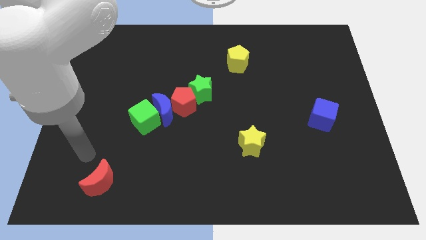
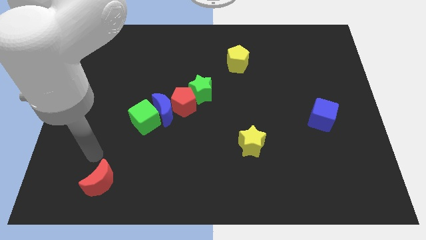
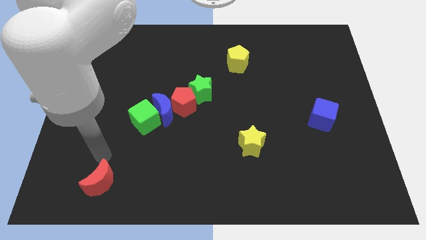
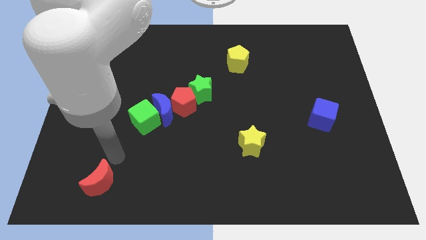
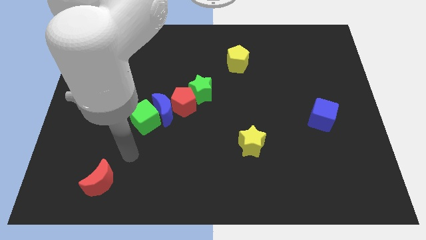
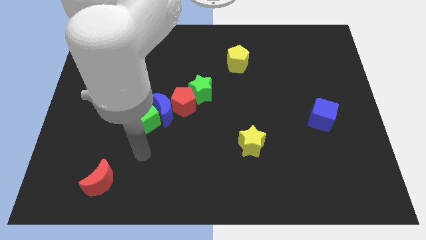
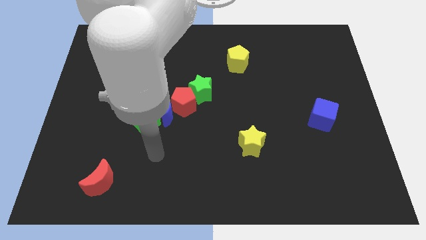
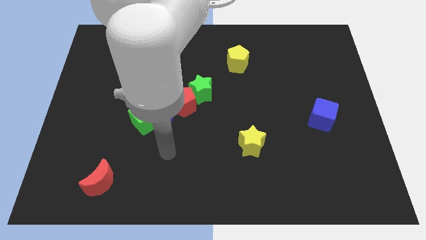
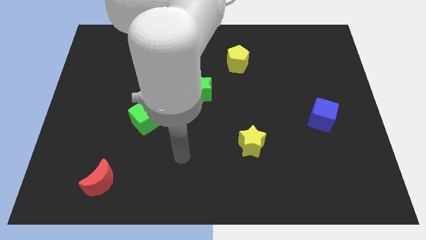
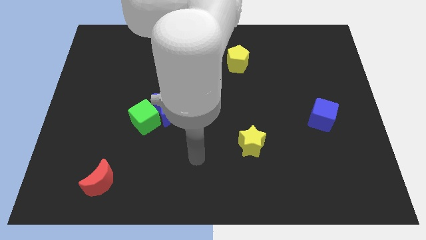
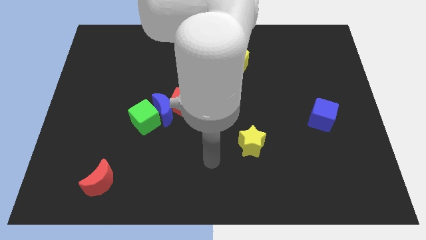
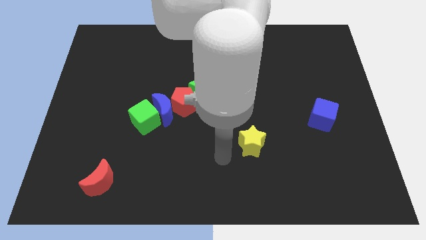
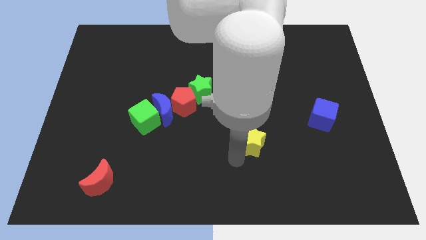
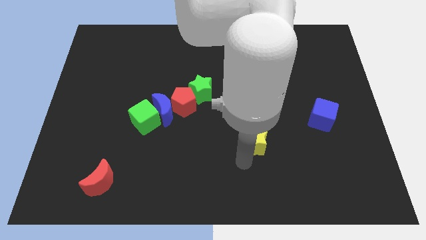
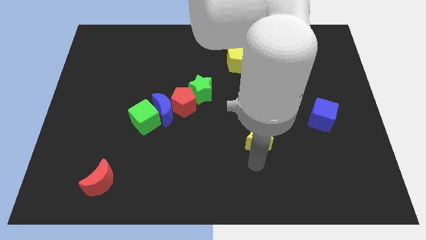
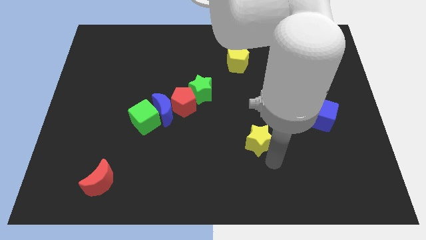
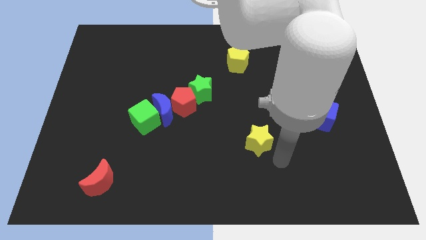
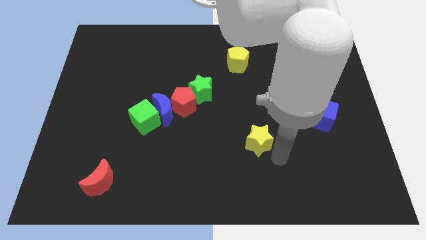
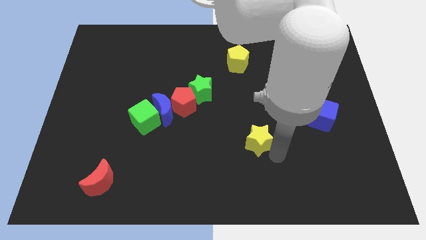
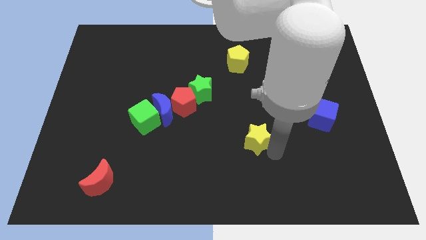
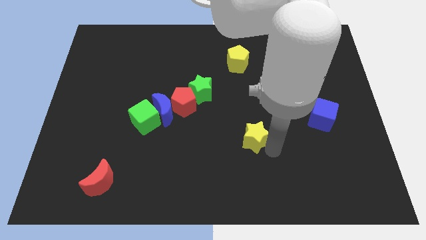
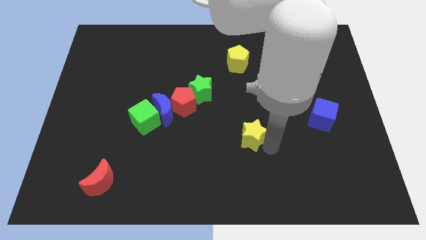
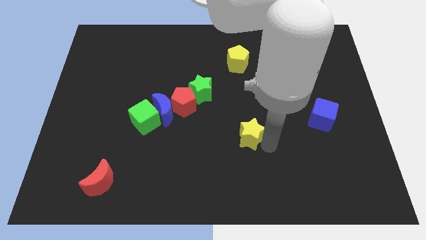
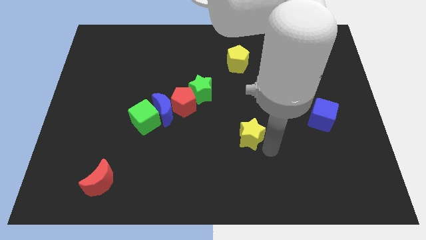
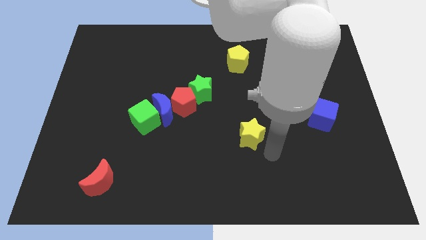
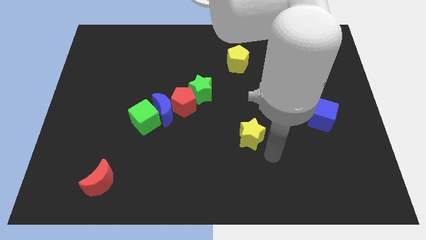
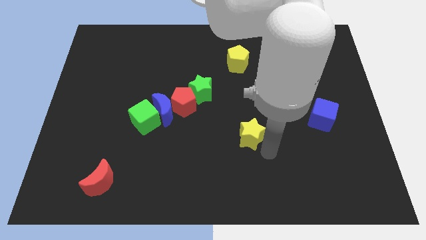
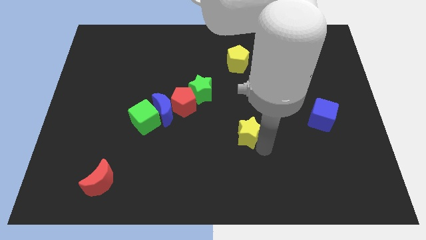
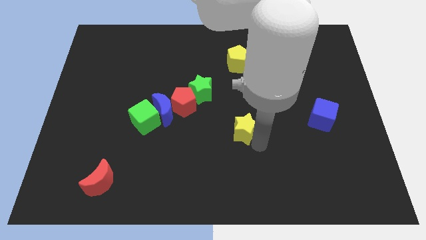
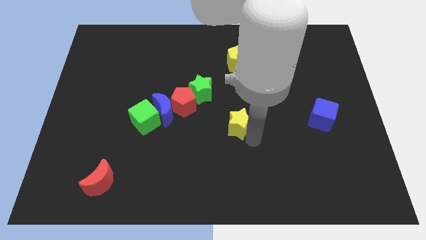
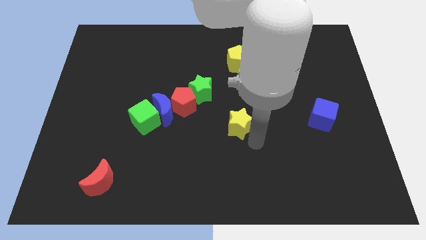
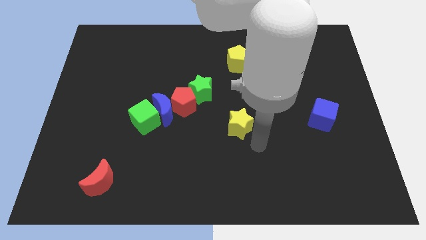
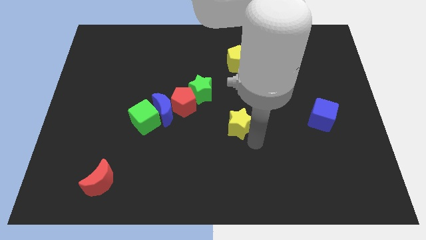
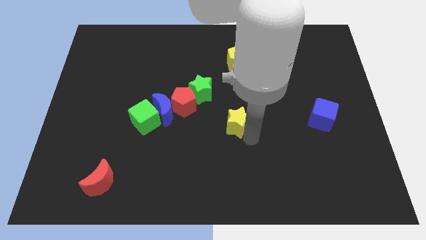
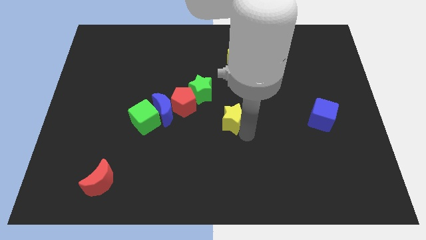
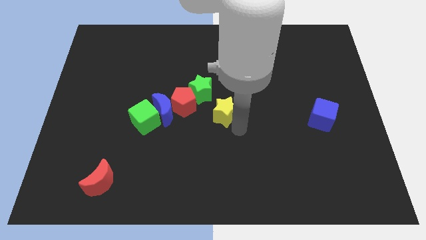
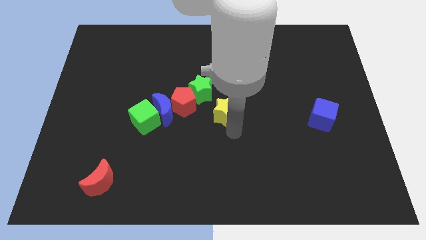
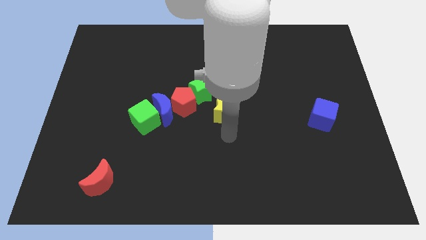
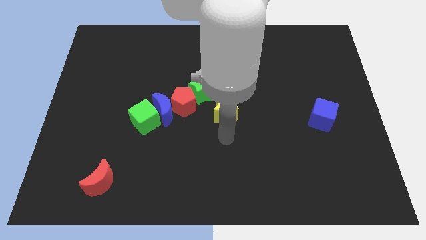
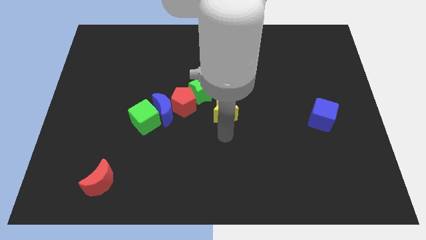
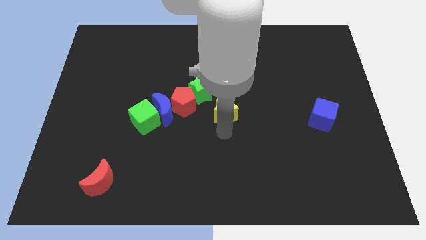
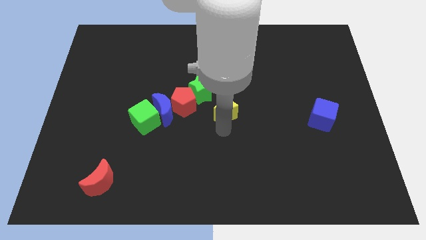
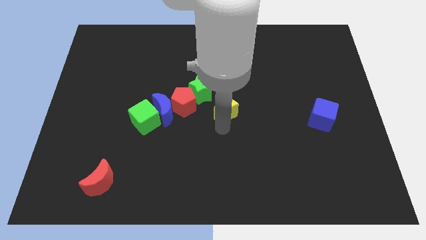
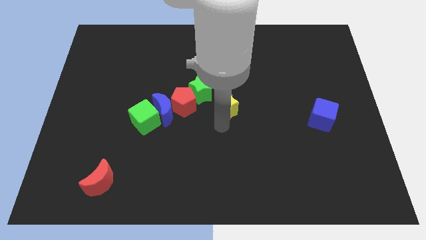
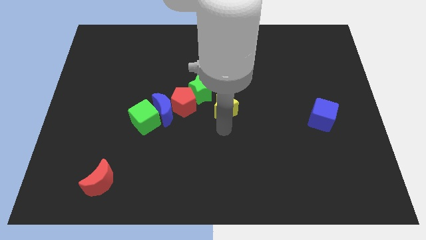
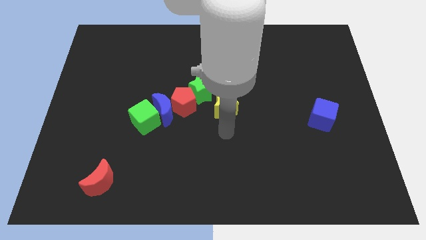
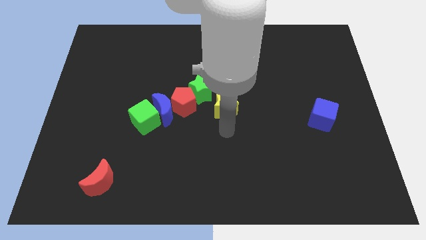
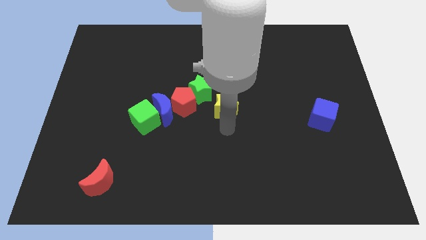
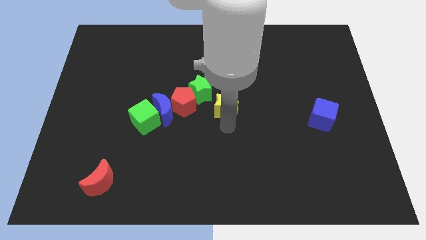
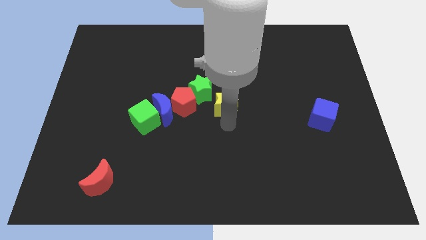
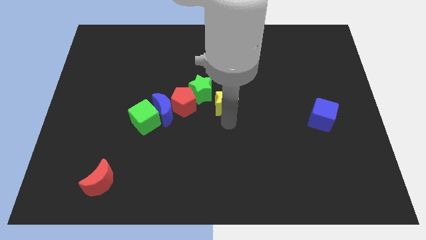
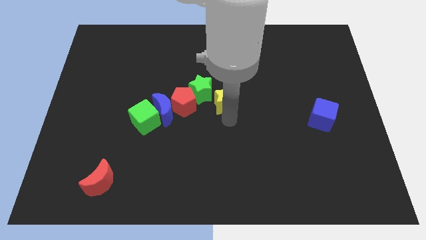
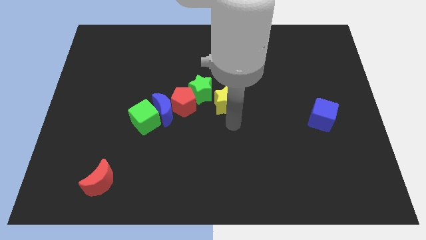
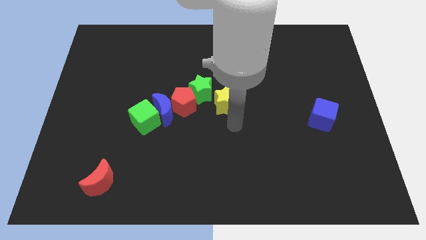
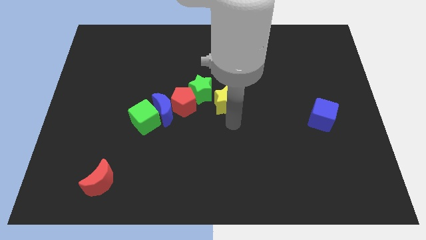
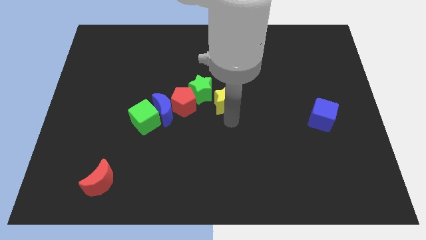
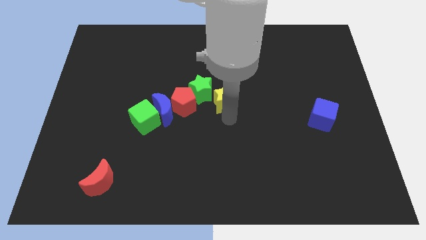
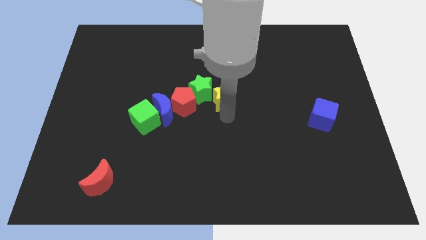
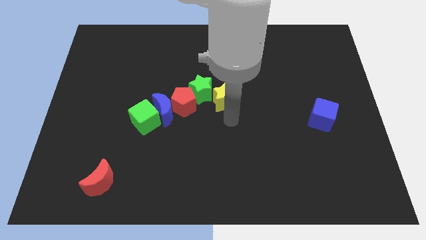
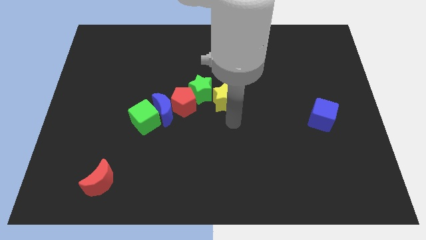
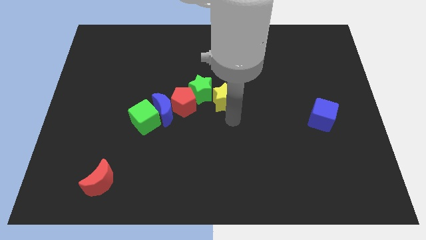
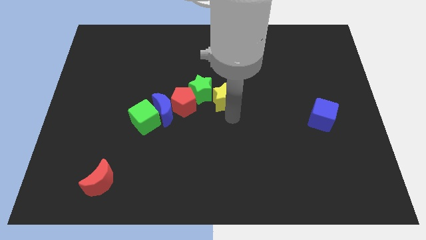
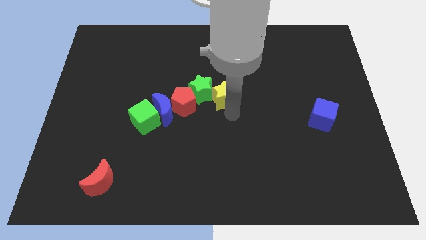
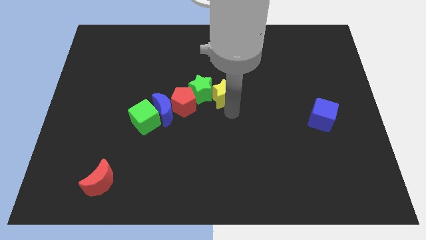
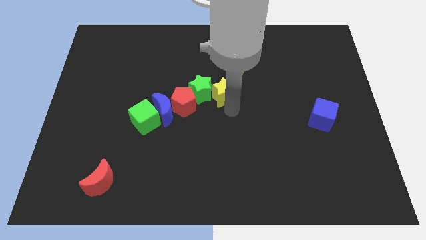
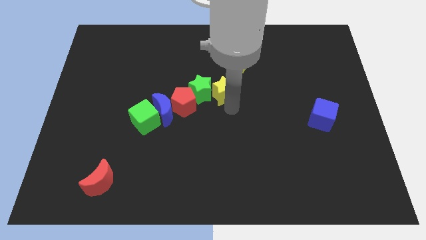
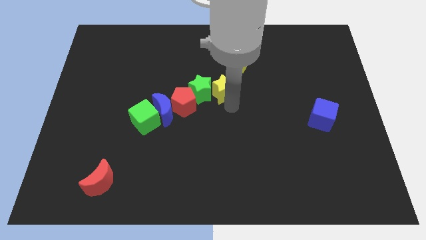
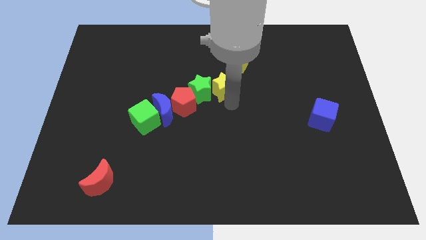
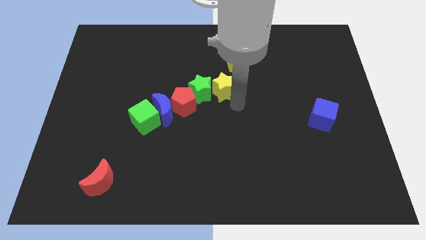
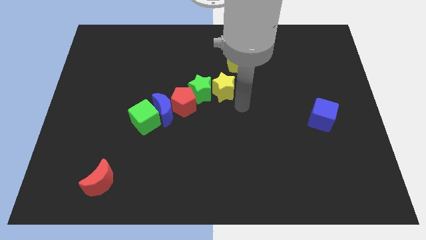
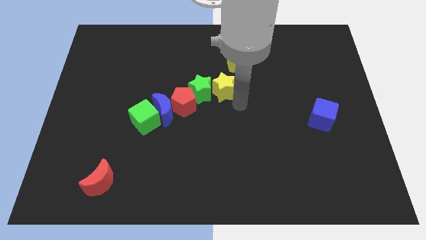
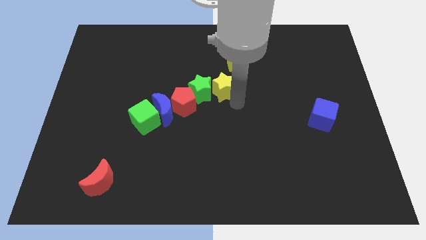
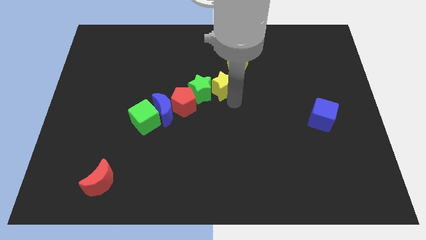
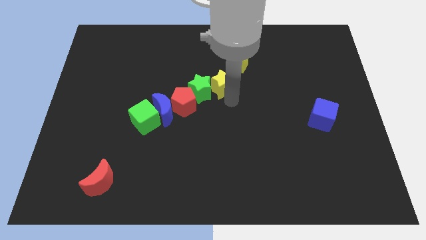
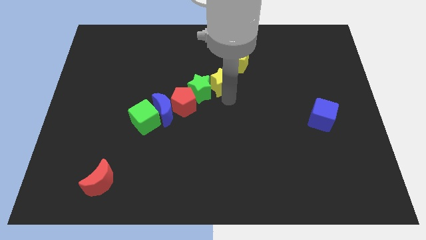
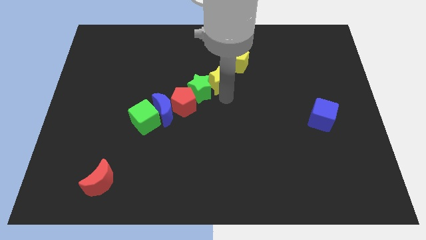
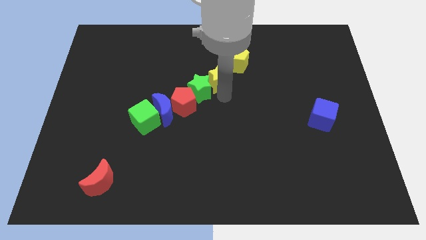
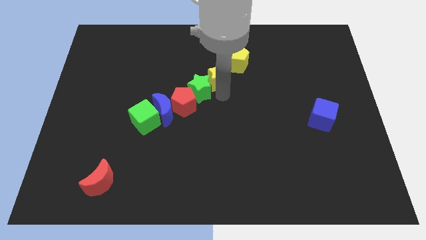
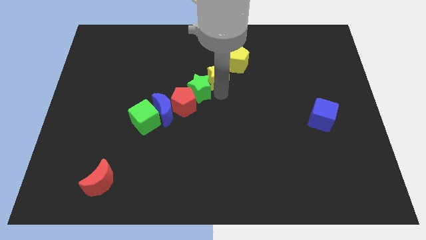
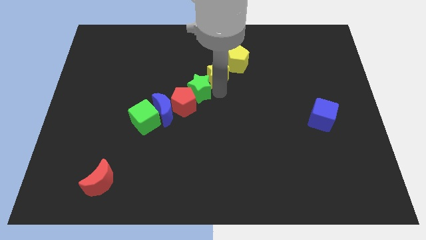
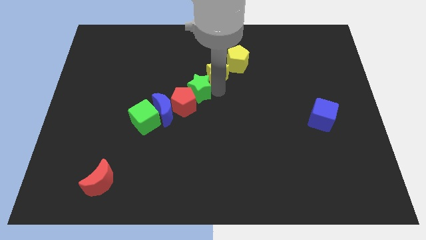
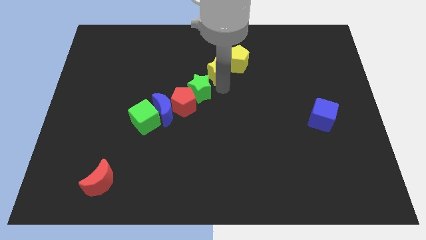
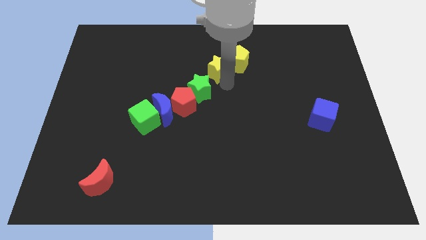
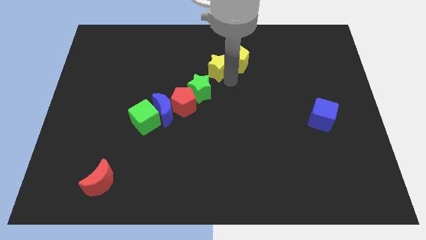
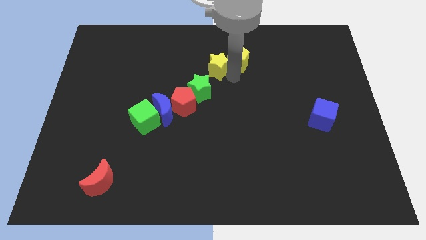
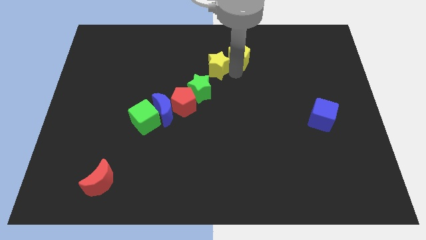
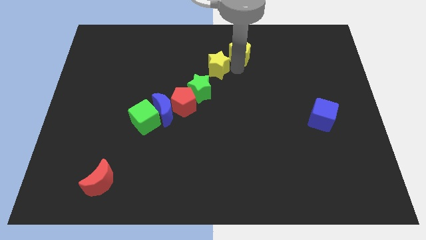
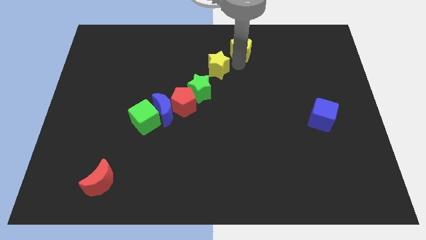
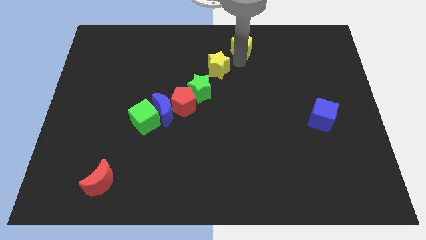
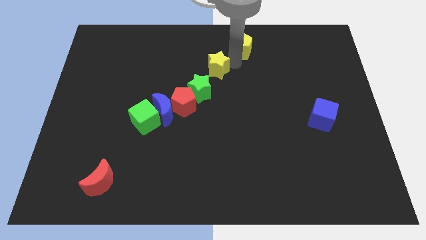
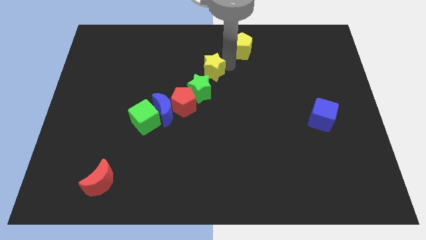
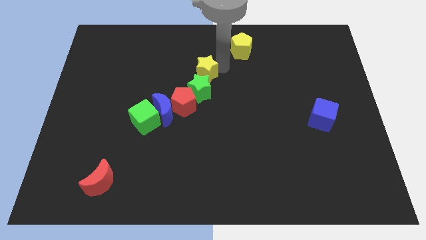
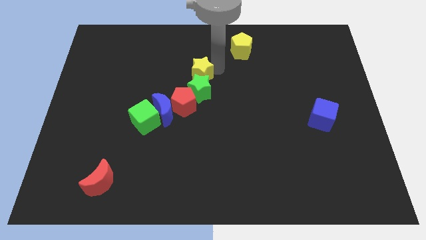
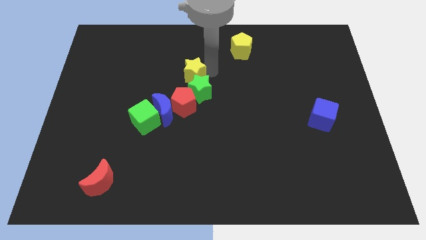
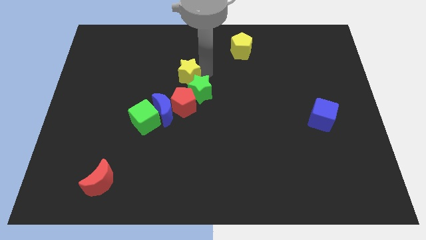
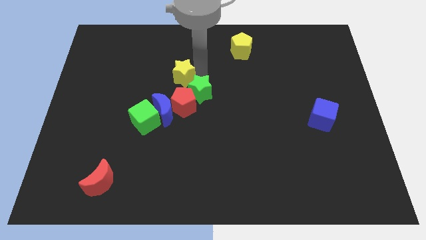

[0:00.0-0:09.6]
put the yellow star to the left of the green star
